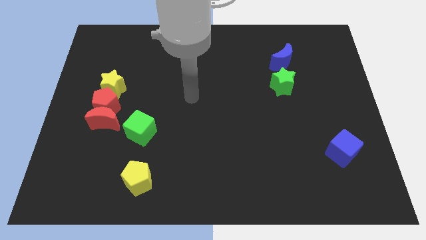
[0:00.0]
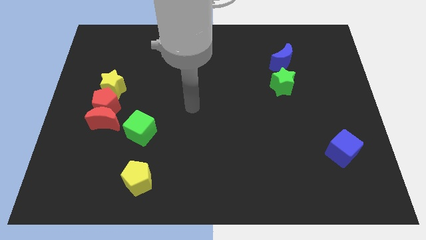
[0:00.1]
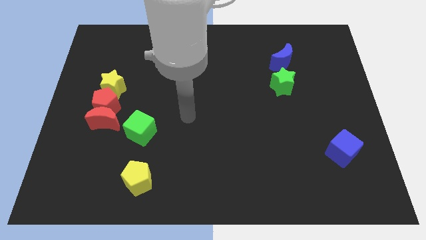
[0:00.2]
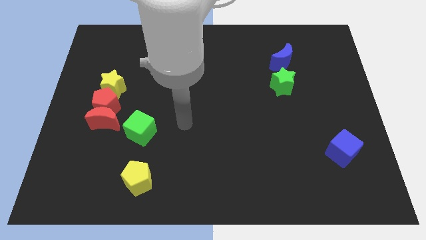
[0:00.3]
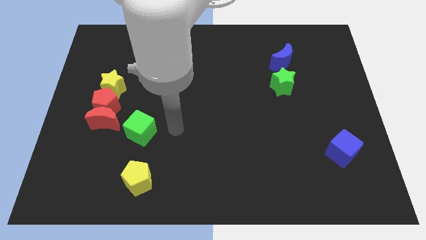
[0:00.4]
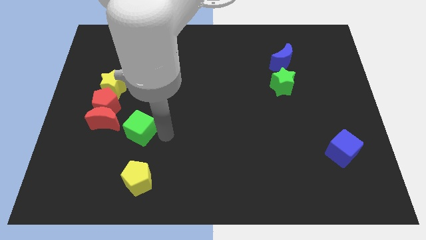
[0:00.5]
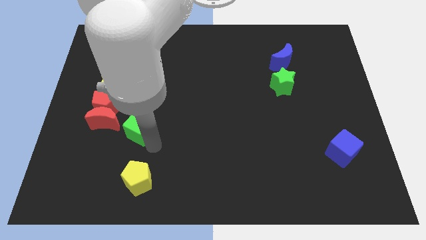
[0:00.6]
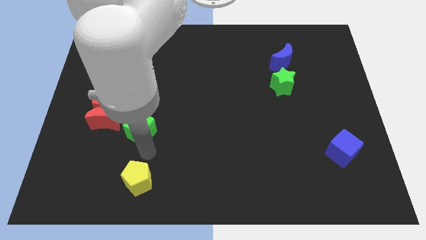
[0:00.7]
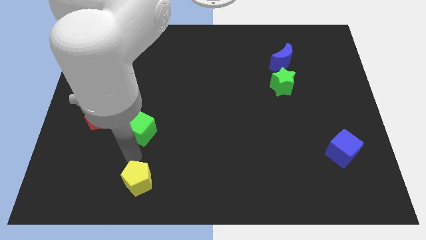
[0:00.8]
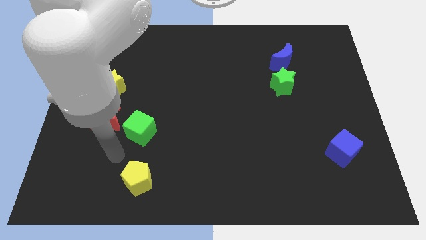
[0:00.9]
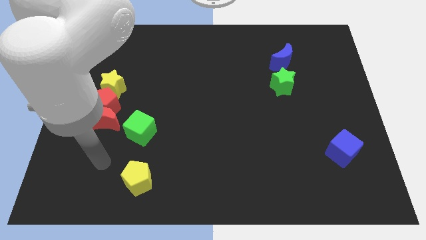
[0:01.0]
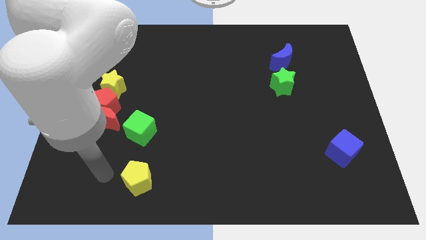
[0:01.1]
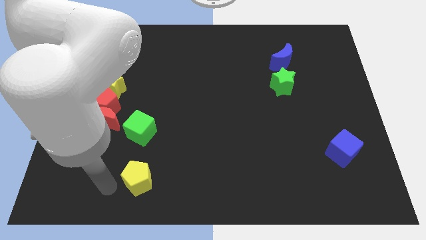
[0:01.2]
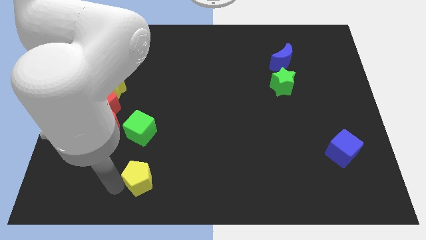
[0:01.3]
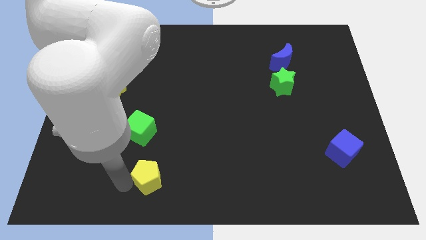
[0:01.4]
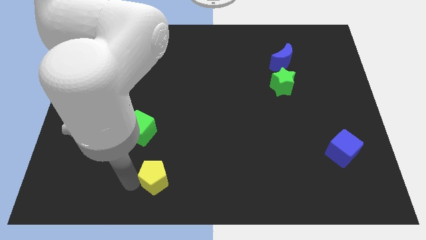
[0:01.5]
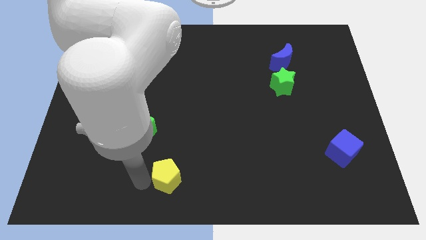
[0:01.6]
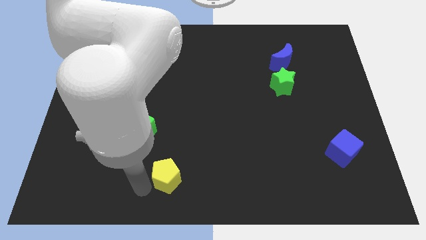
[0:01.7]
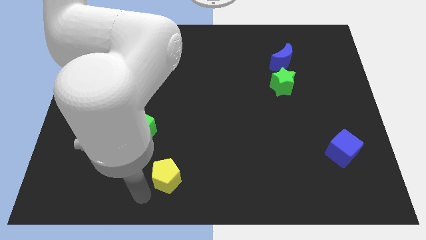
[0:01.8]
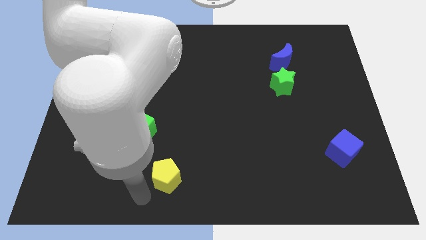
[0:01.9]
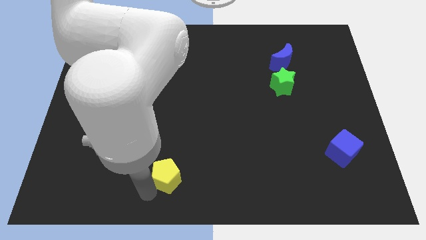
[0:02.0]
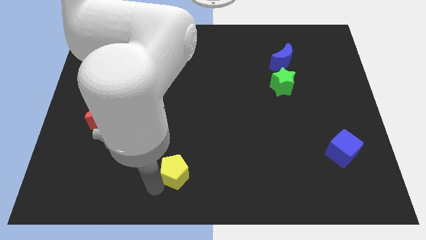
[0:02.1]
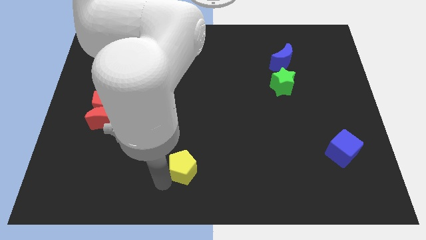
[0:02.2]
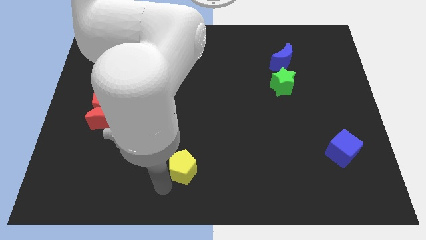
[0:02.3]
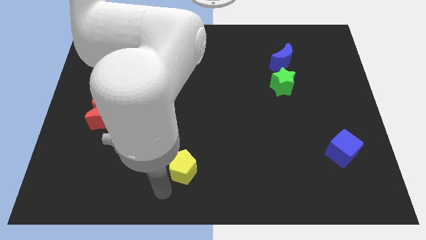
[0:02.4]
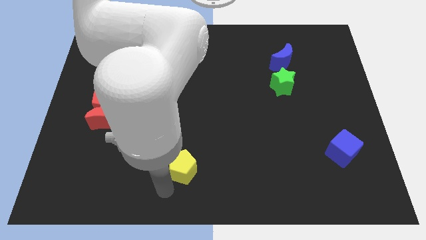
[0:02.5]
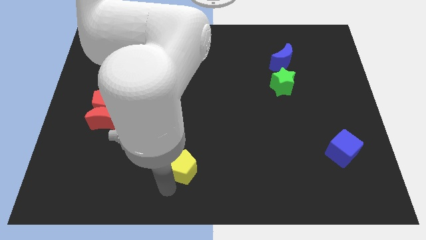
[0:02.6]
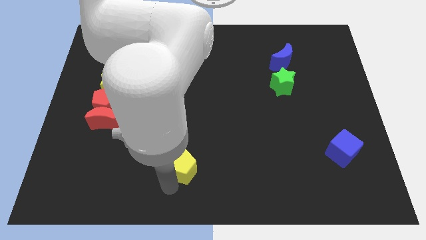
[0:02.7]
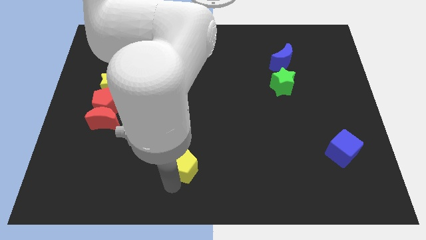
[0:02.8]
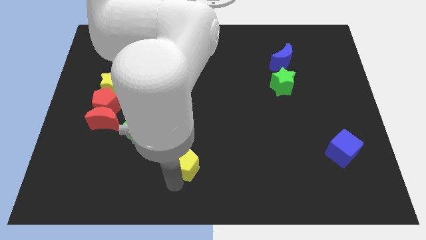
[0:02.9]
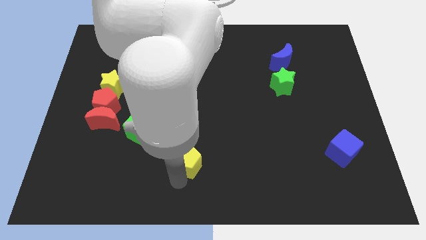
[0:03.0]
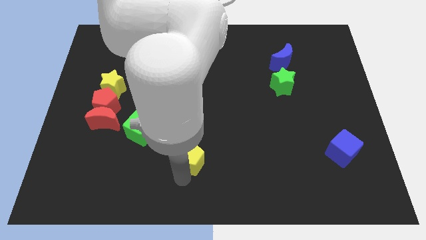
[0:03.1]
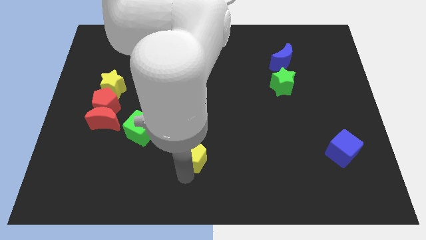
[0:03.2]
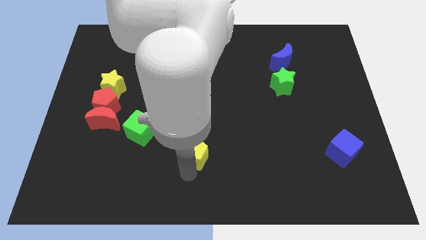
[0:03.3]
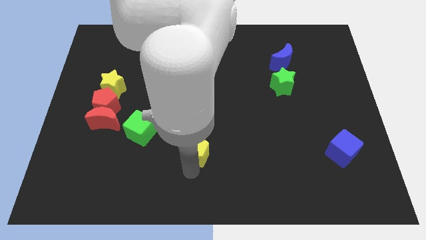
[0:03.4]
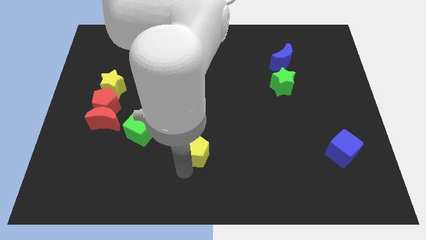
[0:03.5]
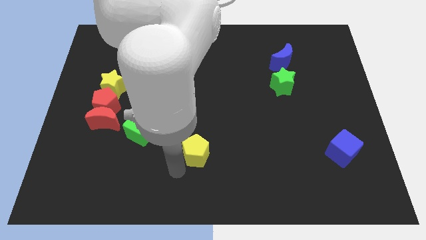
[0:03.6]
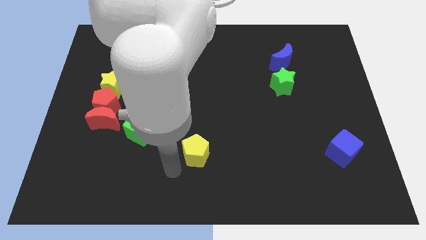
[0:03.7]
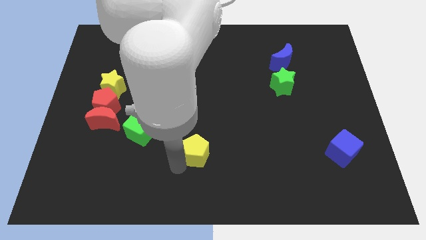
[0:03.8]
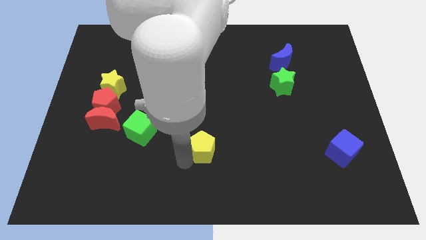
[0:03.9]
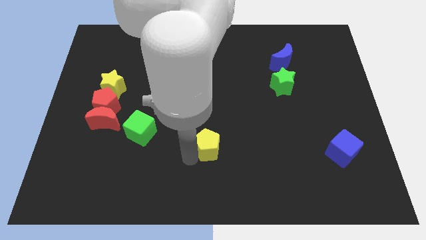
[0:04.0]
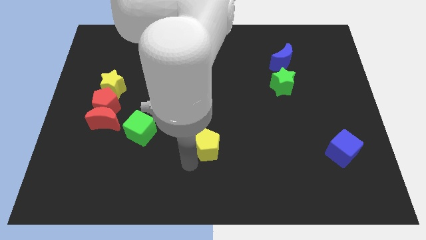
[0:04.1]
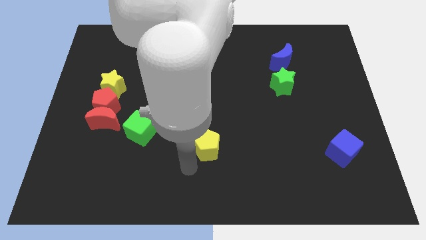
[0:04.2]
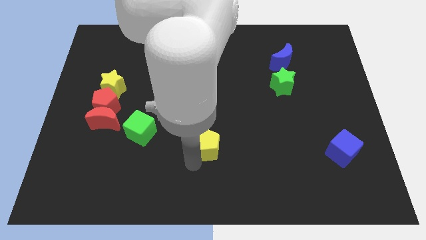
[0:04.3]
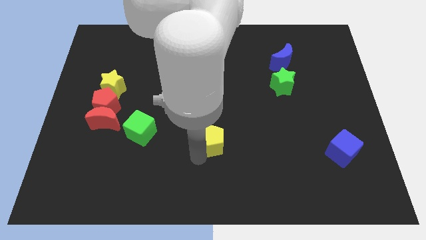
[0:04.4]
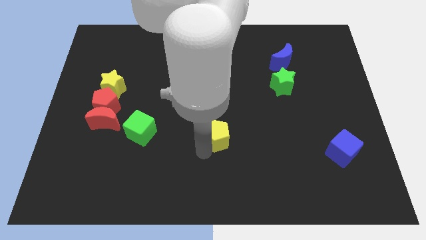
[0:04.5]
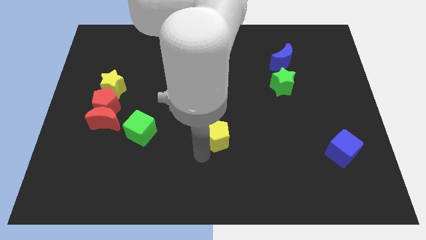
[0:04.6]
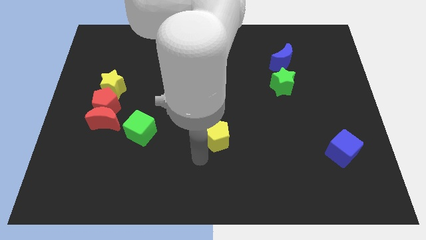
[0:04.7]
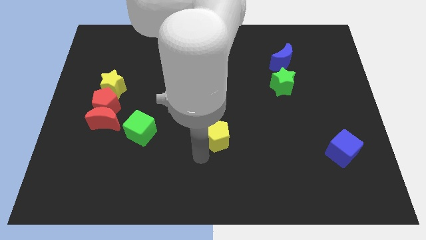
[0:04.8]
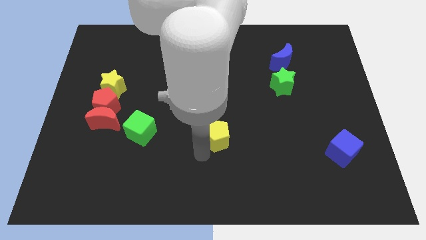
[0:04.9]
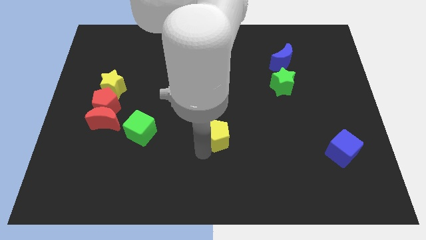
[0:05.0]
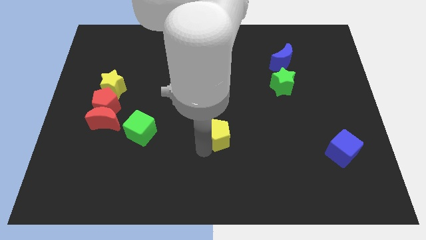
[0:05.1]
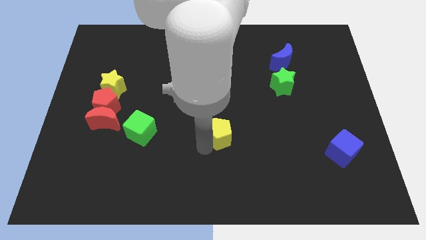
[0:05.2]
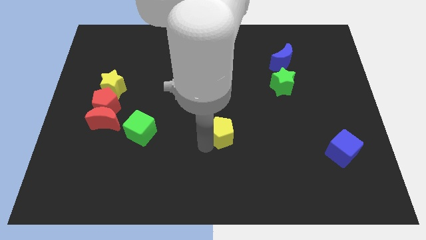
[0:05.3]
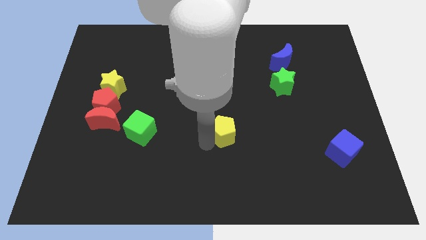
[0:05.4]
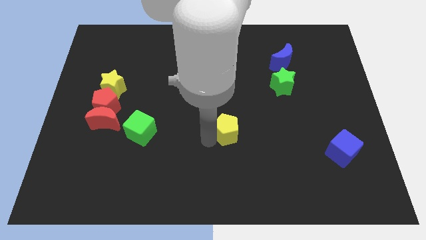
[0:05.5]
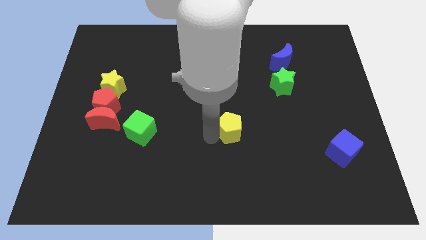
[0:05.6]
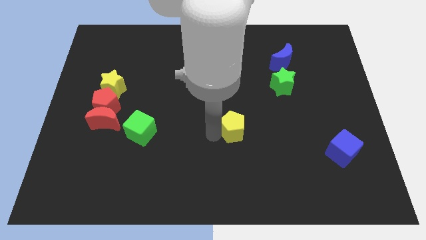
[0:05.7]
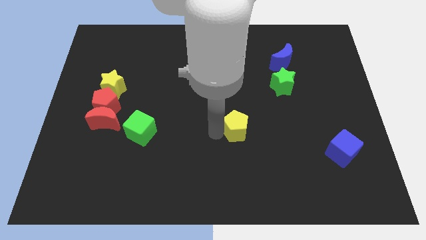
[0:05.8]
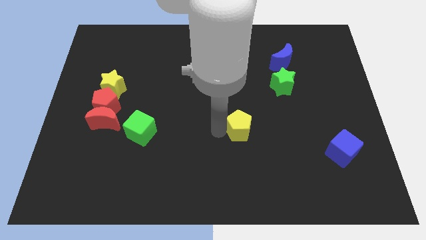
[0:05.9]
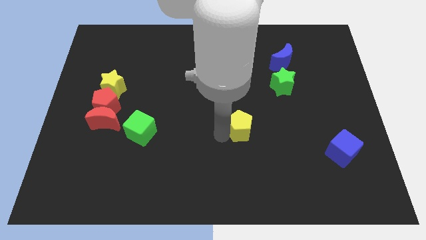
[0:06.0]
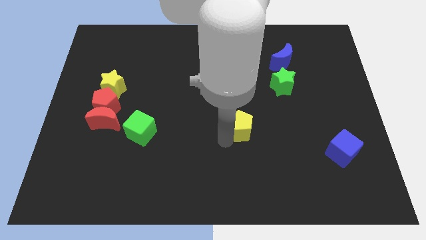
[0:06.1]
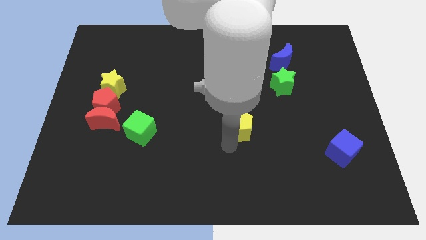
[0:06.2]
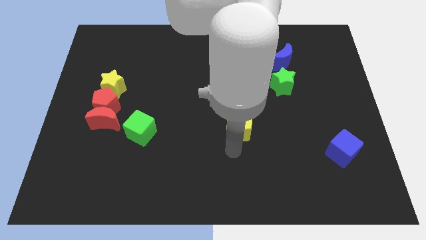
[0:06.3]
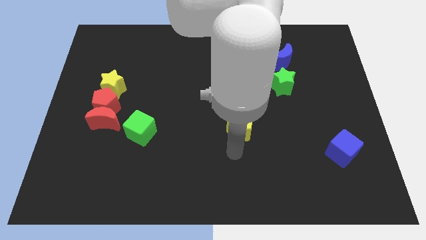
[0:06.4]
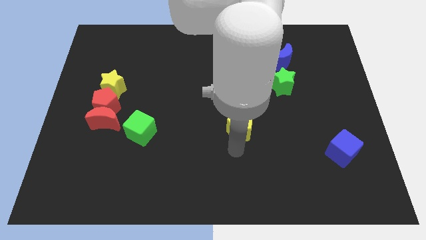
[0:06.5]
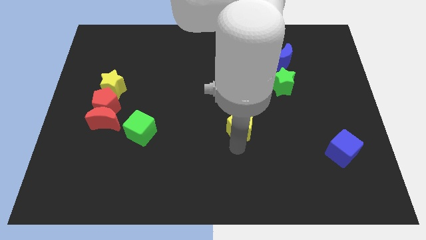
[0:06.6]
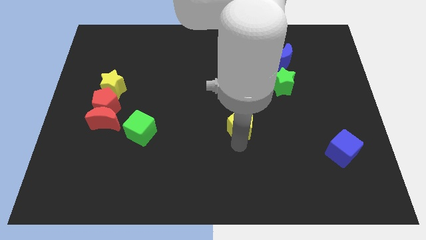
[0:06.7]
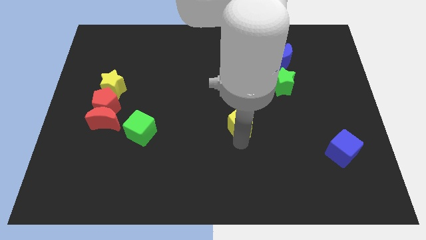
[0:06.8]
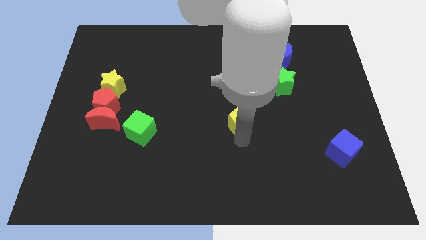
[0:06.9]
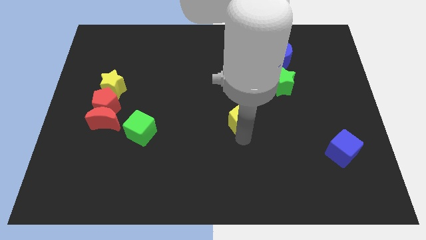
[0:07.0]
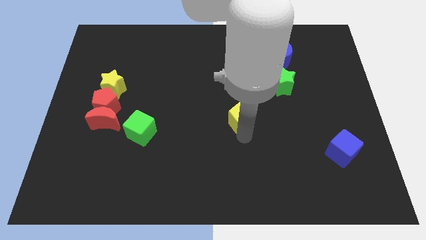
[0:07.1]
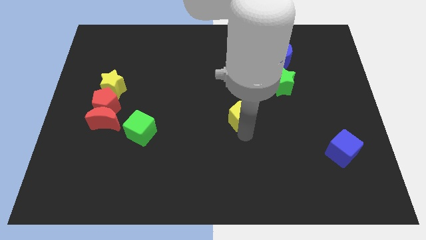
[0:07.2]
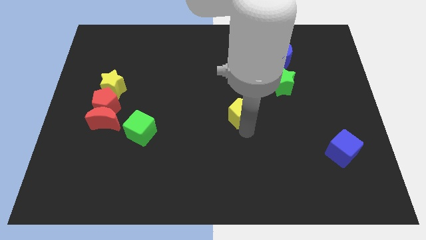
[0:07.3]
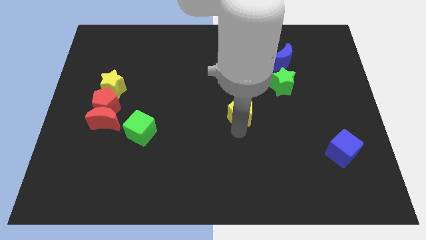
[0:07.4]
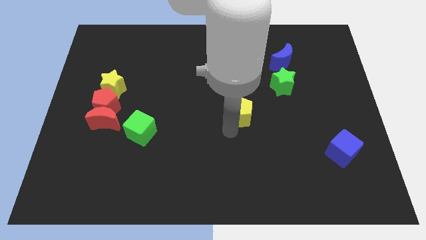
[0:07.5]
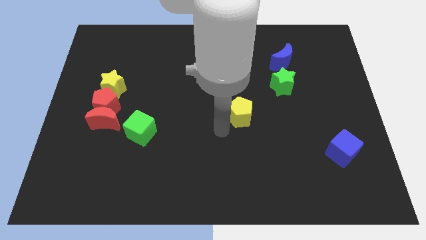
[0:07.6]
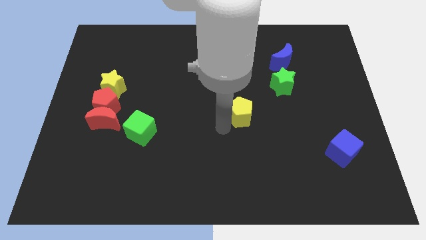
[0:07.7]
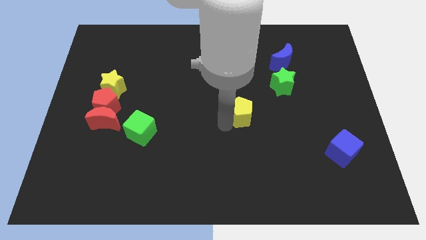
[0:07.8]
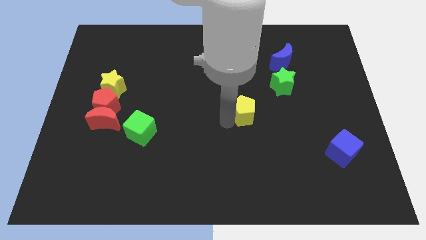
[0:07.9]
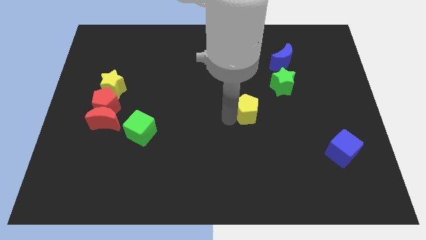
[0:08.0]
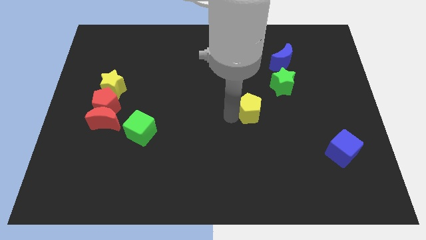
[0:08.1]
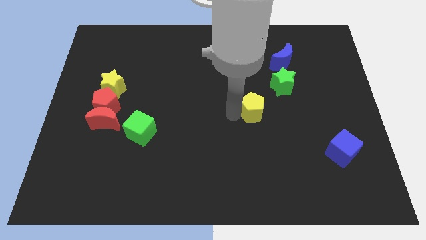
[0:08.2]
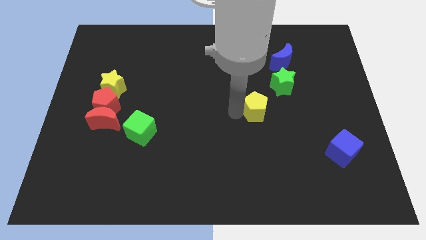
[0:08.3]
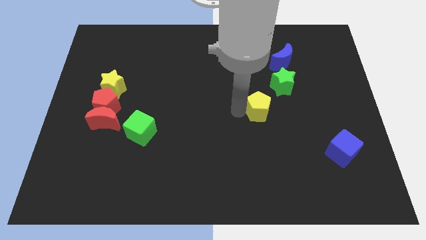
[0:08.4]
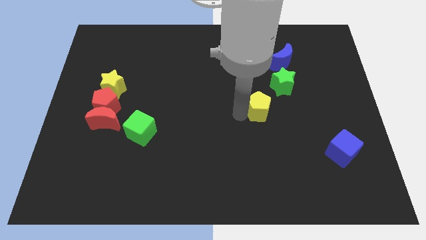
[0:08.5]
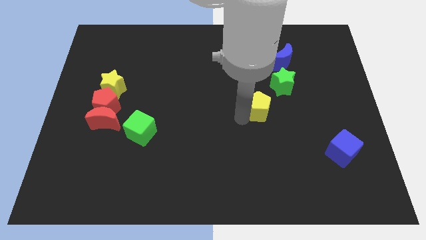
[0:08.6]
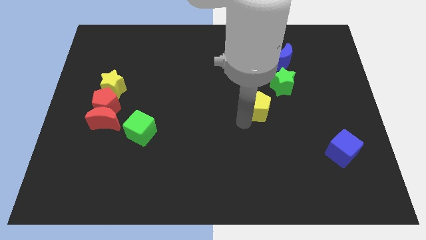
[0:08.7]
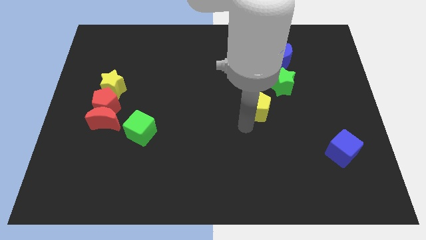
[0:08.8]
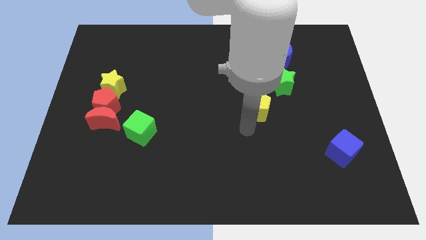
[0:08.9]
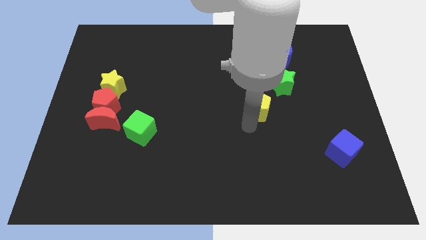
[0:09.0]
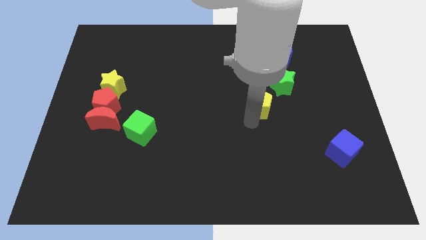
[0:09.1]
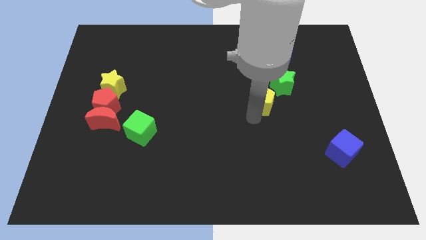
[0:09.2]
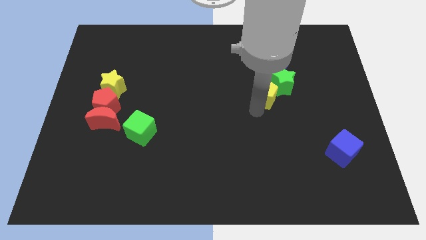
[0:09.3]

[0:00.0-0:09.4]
slide the yellow pentagon close to the green star
